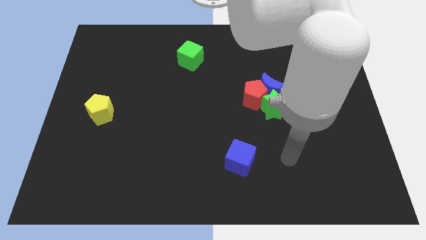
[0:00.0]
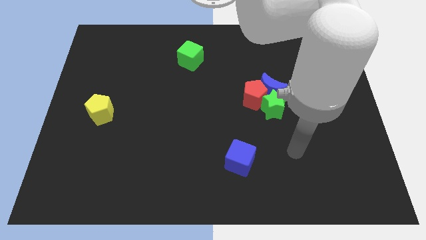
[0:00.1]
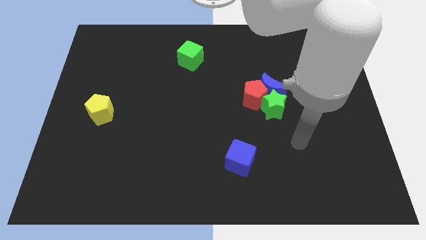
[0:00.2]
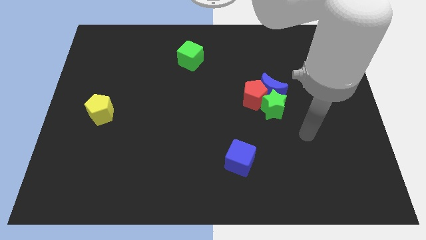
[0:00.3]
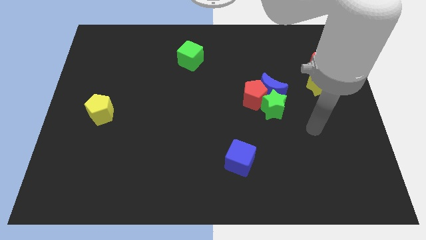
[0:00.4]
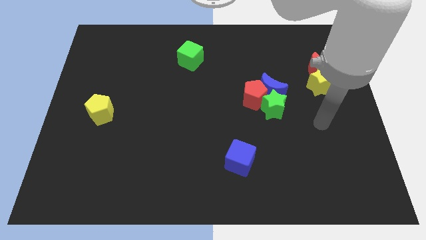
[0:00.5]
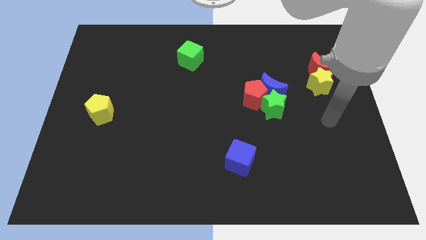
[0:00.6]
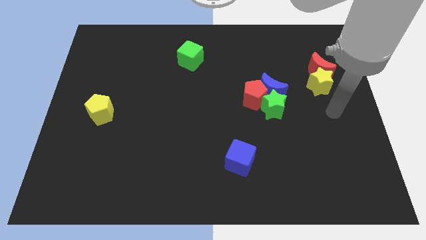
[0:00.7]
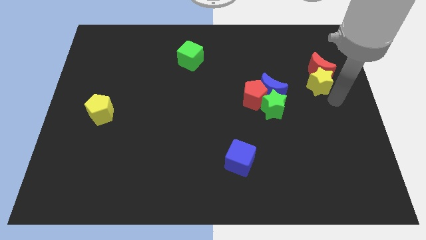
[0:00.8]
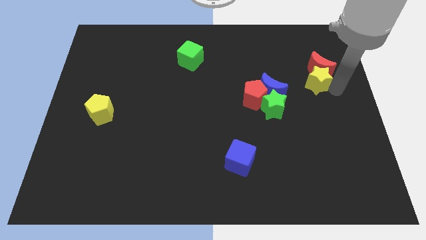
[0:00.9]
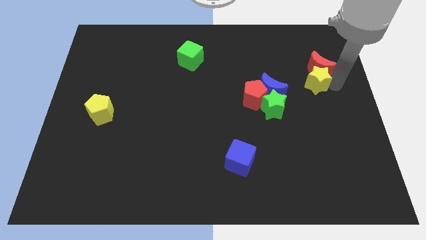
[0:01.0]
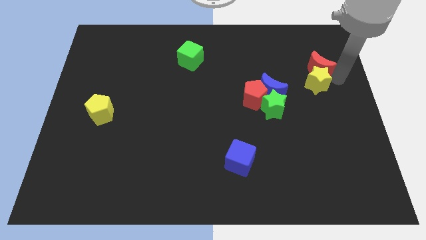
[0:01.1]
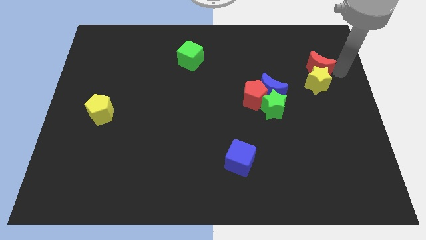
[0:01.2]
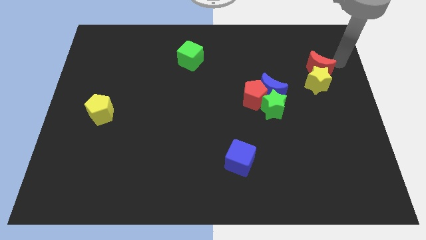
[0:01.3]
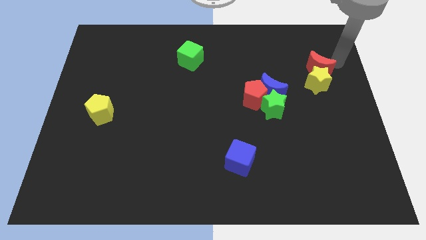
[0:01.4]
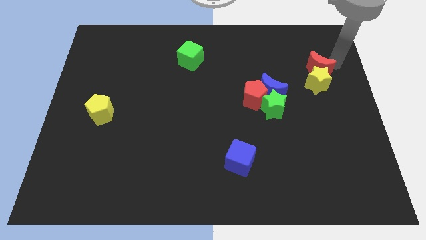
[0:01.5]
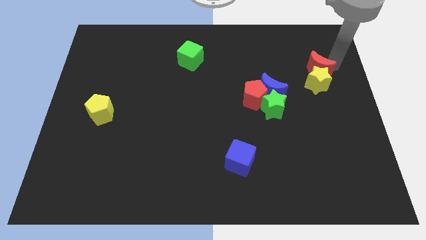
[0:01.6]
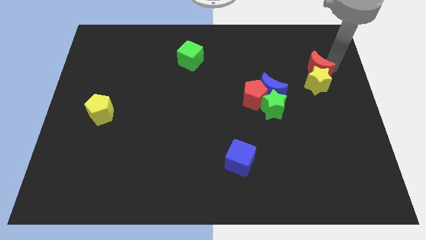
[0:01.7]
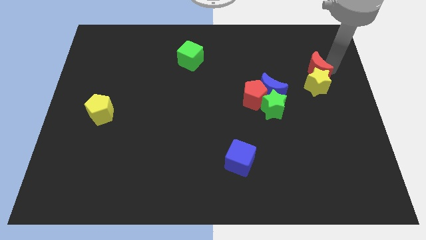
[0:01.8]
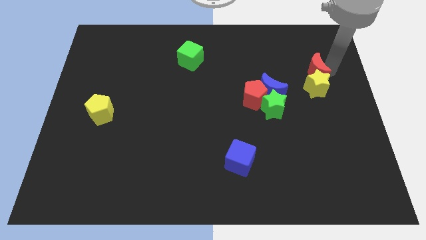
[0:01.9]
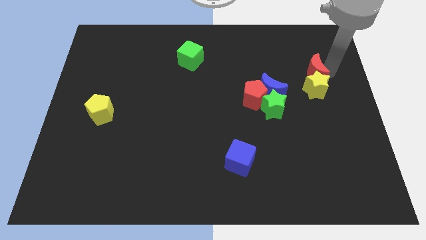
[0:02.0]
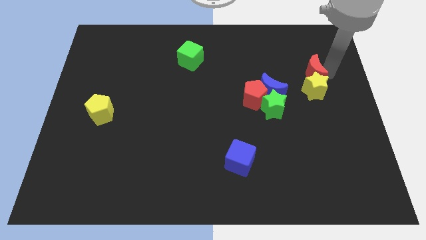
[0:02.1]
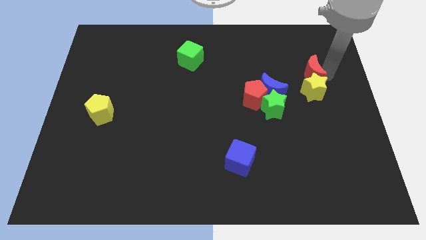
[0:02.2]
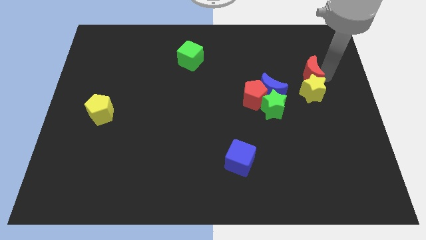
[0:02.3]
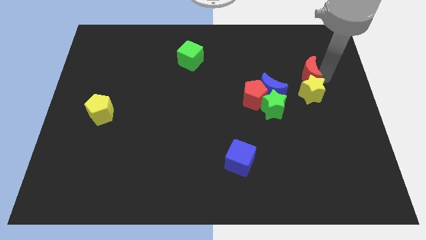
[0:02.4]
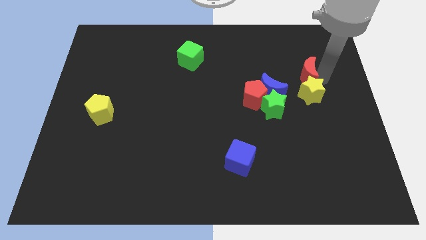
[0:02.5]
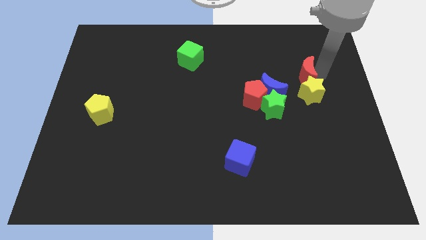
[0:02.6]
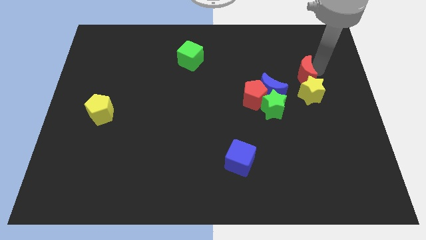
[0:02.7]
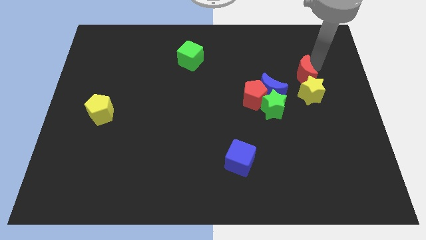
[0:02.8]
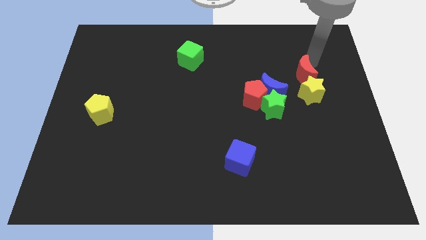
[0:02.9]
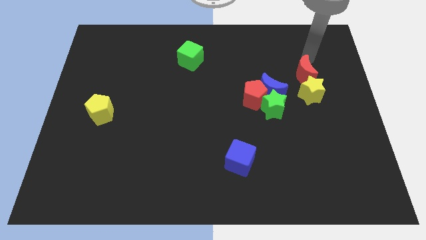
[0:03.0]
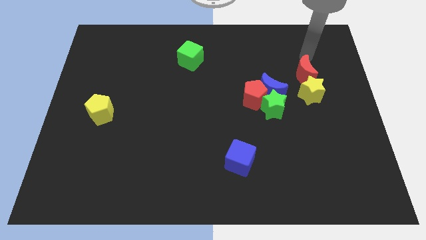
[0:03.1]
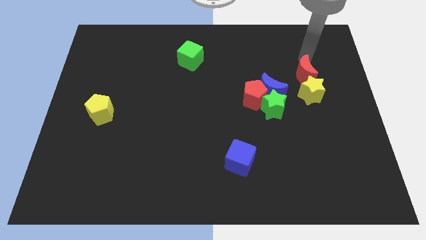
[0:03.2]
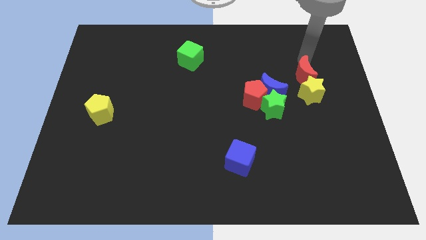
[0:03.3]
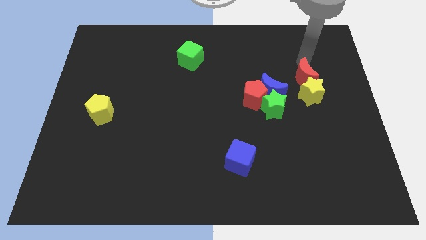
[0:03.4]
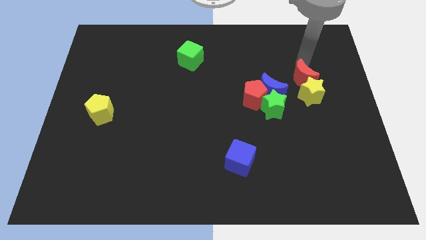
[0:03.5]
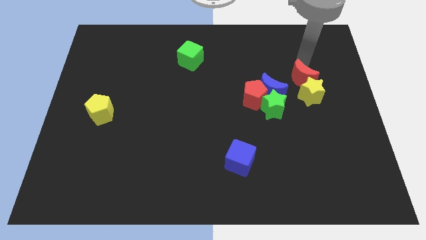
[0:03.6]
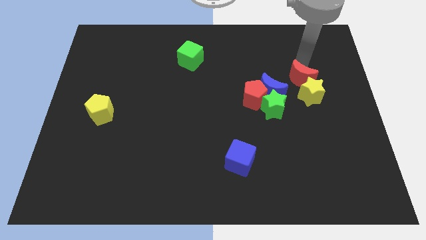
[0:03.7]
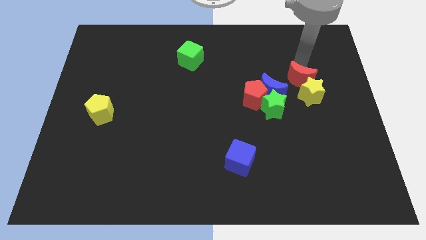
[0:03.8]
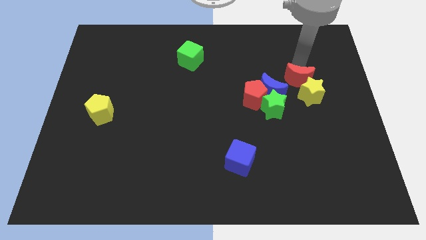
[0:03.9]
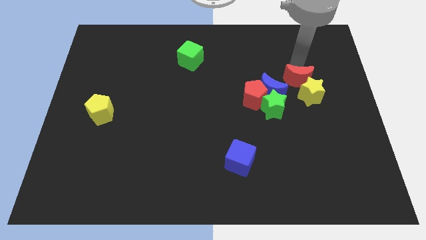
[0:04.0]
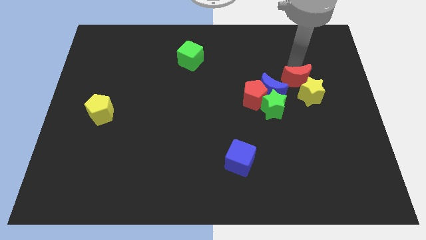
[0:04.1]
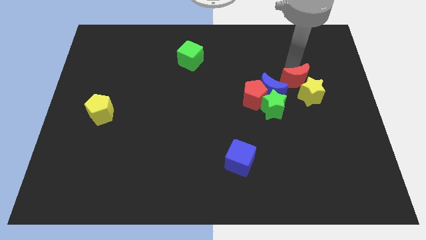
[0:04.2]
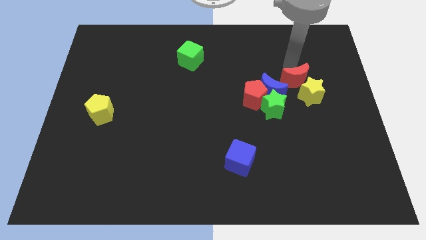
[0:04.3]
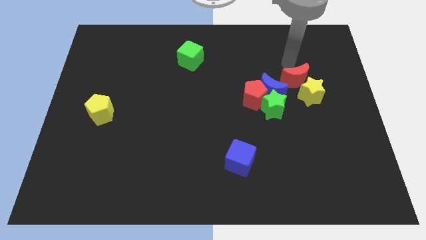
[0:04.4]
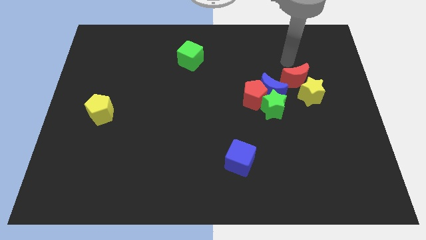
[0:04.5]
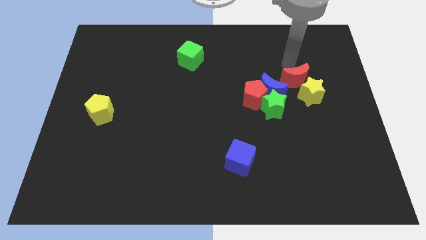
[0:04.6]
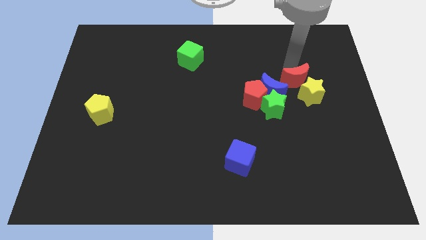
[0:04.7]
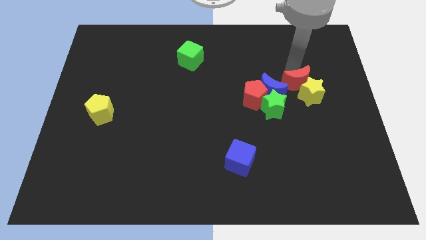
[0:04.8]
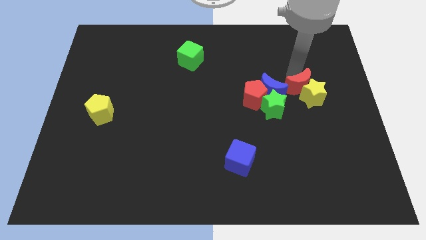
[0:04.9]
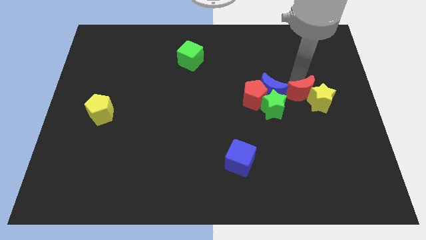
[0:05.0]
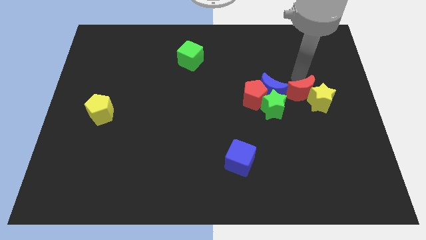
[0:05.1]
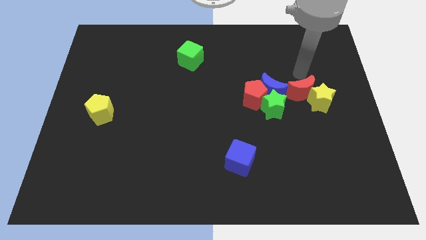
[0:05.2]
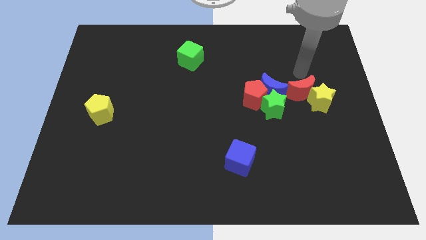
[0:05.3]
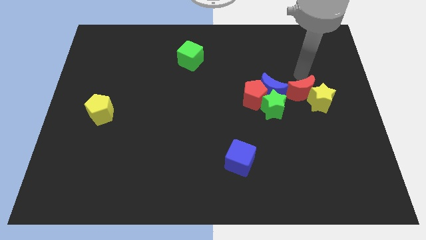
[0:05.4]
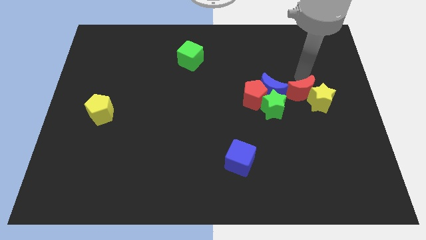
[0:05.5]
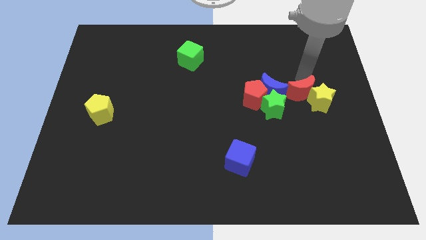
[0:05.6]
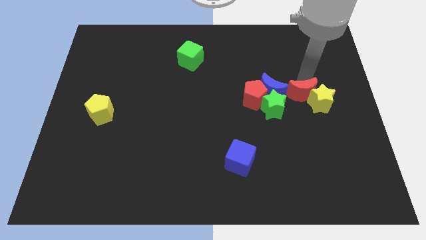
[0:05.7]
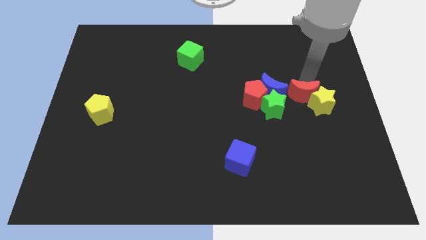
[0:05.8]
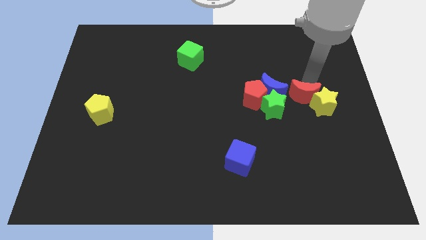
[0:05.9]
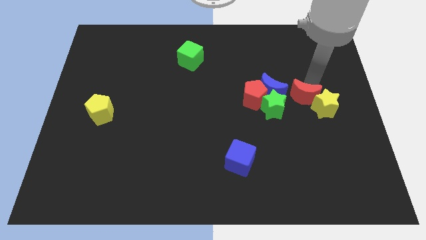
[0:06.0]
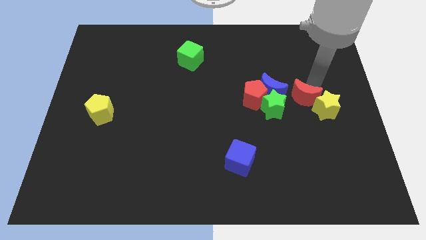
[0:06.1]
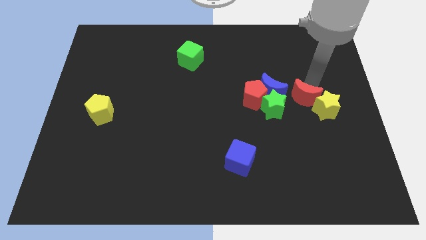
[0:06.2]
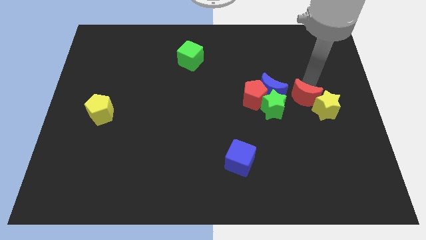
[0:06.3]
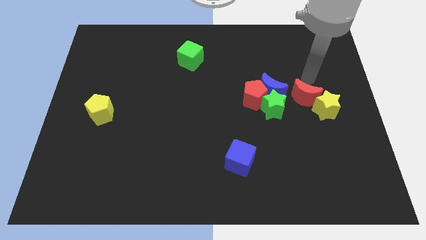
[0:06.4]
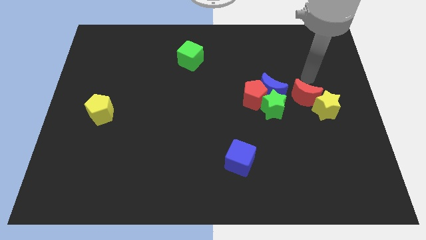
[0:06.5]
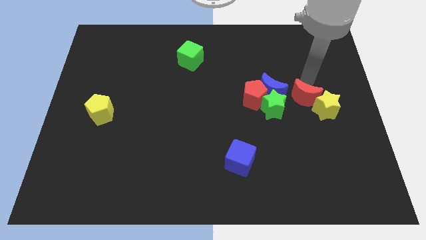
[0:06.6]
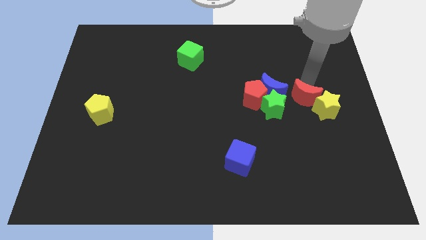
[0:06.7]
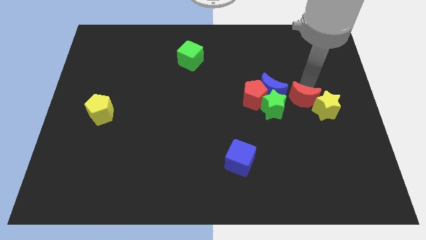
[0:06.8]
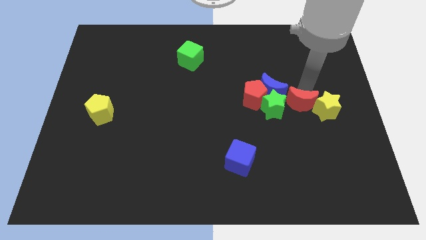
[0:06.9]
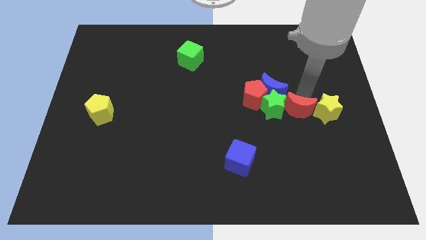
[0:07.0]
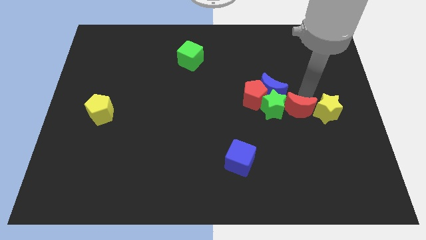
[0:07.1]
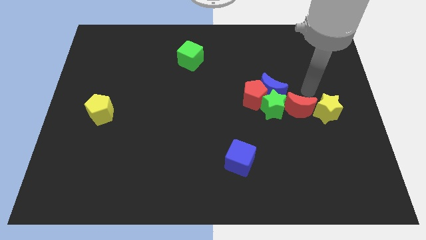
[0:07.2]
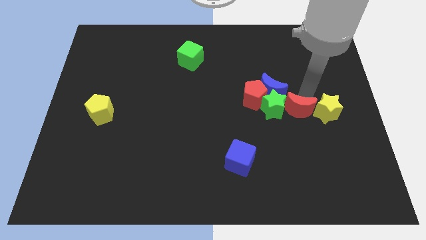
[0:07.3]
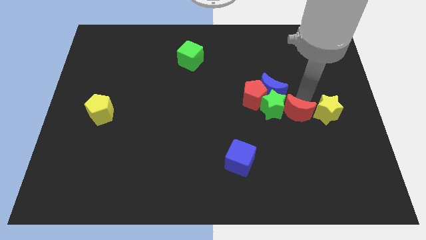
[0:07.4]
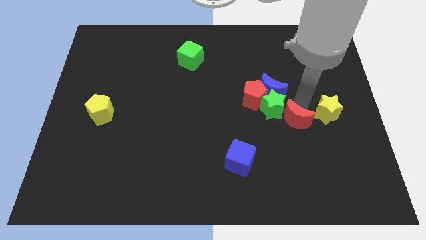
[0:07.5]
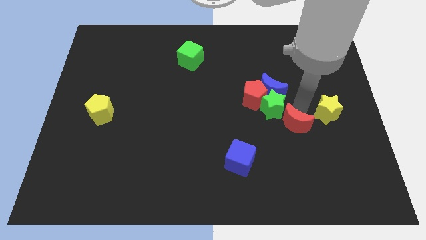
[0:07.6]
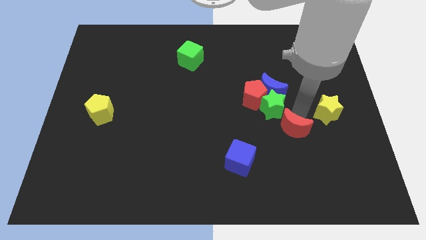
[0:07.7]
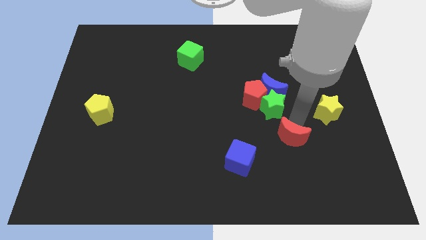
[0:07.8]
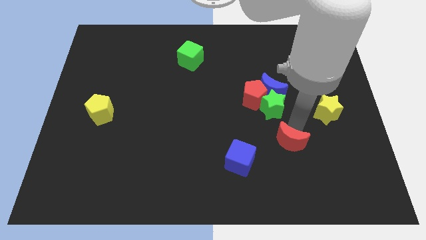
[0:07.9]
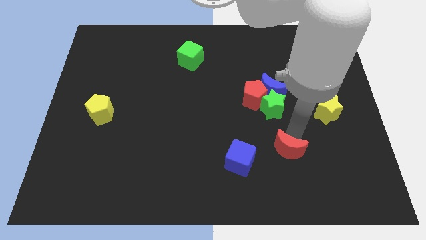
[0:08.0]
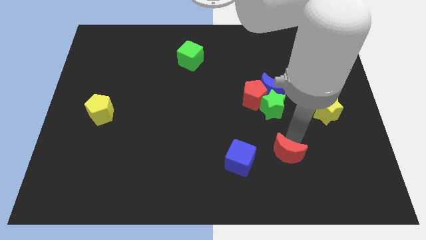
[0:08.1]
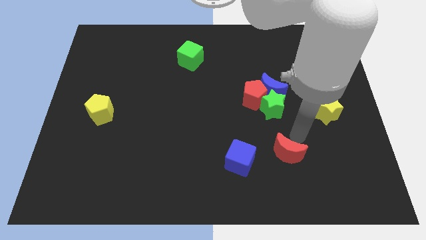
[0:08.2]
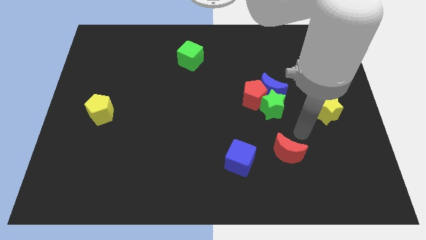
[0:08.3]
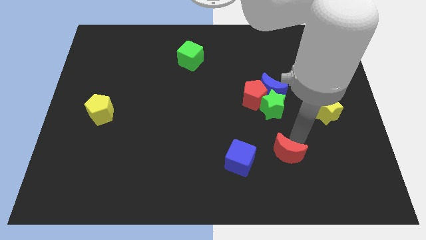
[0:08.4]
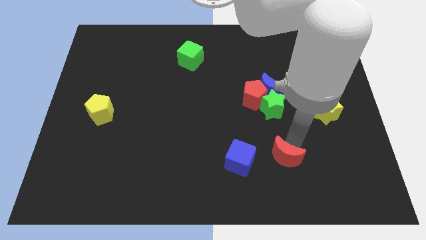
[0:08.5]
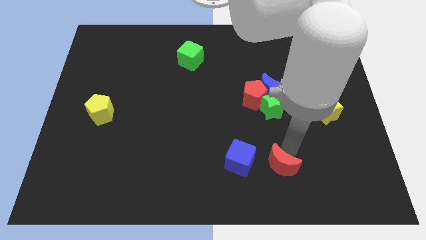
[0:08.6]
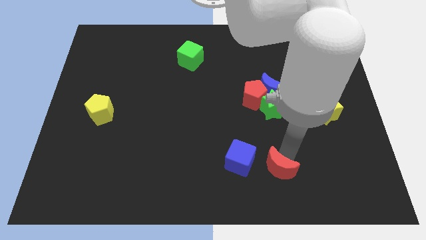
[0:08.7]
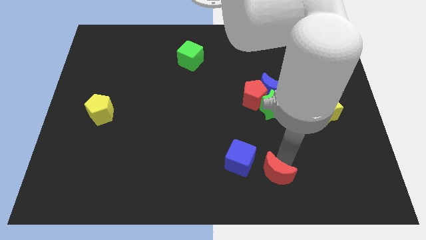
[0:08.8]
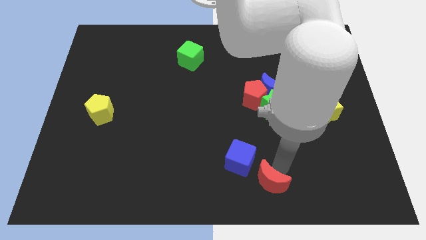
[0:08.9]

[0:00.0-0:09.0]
move the red moon to the bottom side
